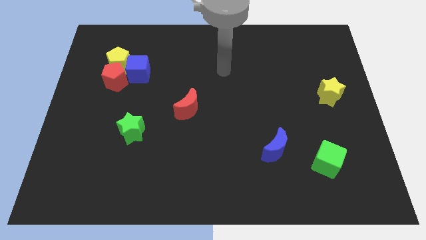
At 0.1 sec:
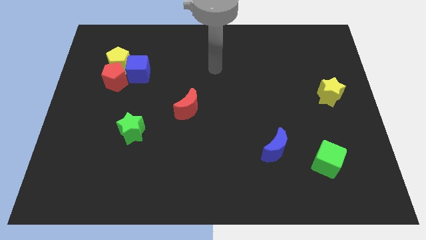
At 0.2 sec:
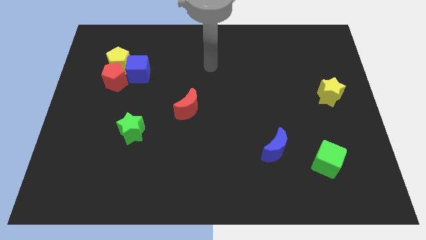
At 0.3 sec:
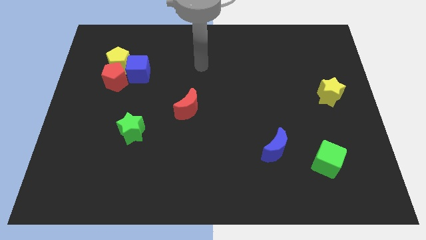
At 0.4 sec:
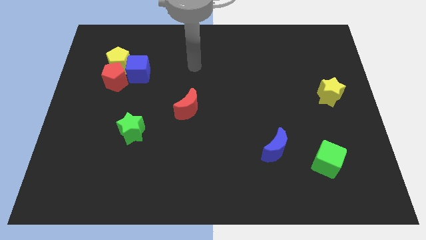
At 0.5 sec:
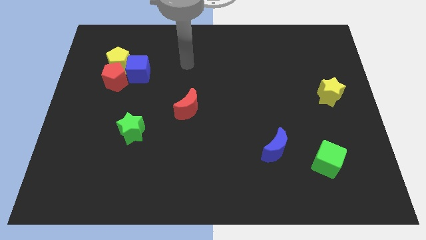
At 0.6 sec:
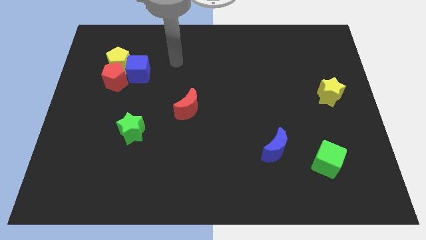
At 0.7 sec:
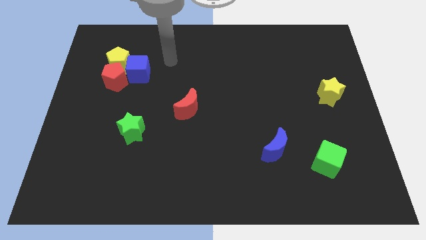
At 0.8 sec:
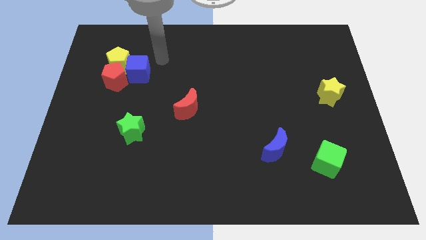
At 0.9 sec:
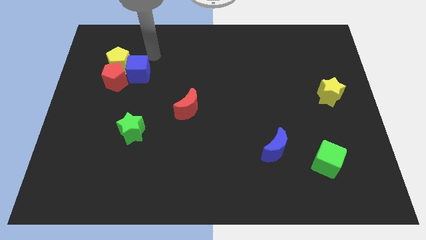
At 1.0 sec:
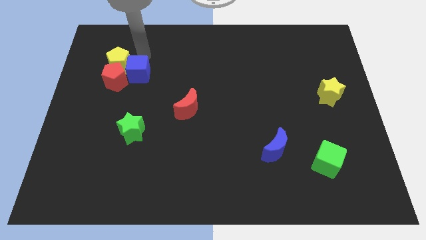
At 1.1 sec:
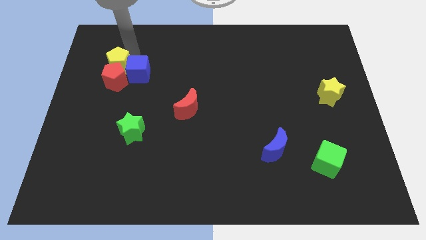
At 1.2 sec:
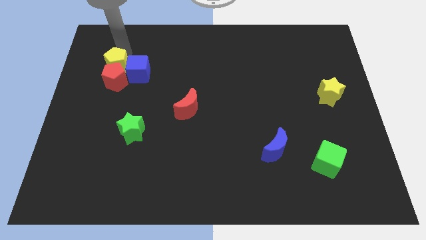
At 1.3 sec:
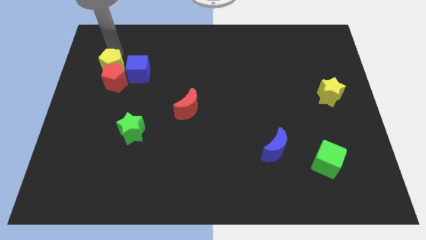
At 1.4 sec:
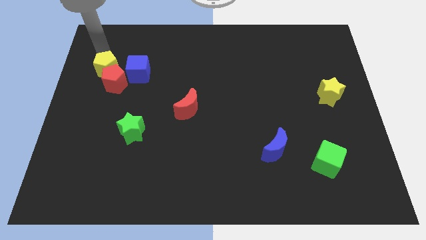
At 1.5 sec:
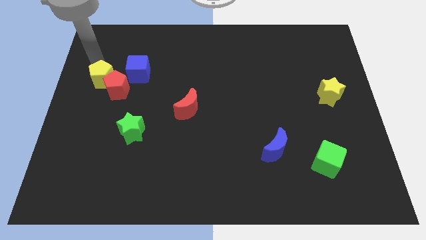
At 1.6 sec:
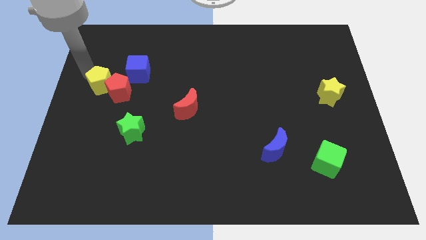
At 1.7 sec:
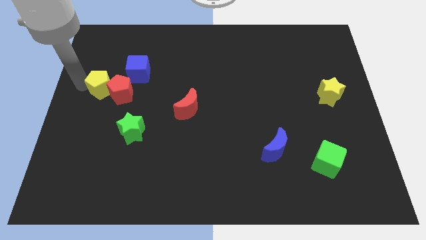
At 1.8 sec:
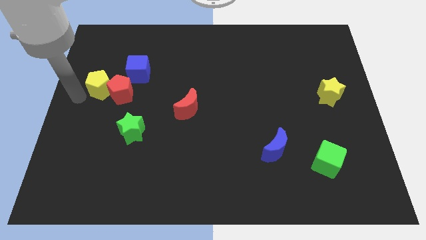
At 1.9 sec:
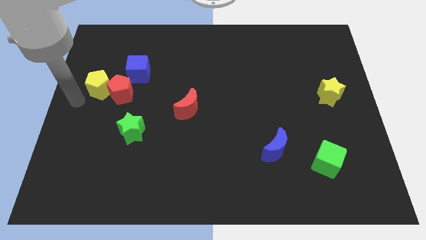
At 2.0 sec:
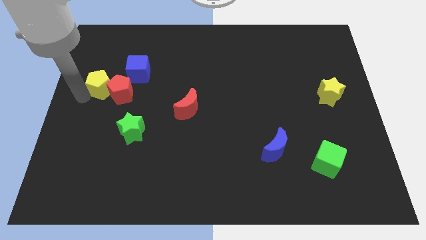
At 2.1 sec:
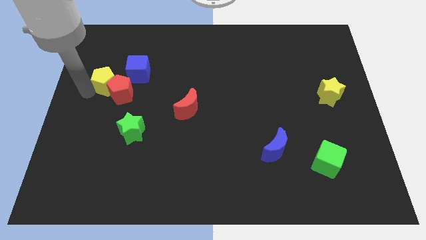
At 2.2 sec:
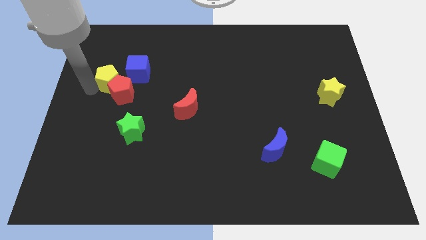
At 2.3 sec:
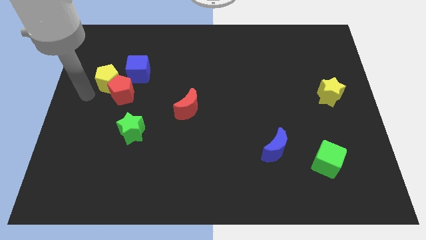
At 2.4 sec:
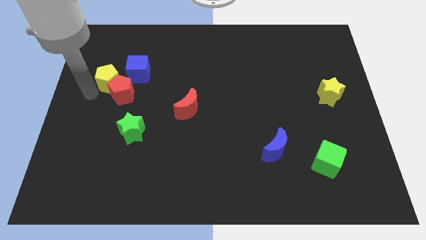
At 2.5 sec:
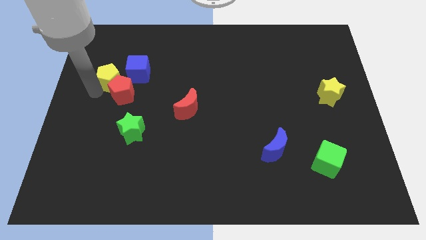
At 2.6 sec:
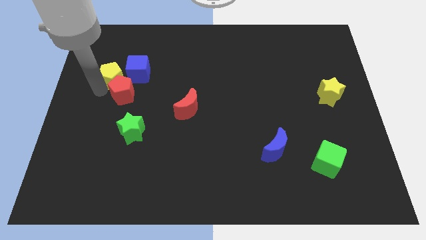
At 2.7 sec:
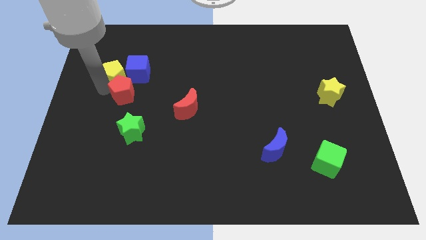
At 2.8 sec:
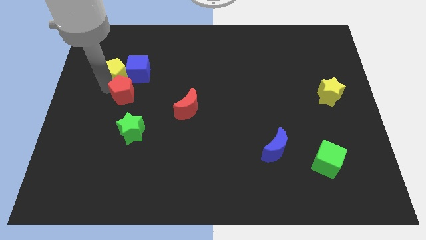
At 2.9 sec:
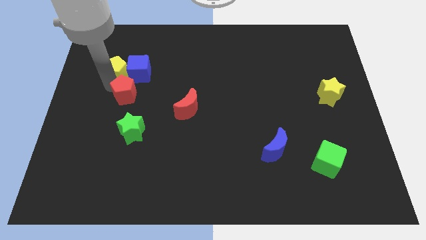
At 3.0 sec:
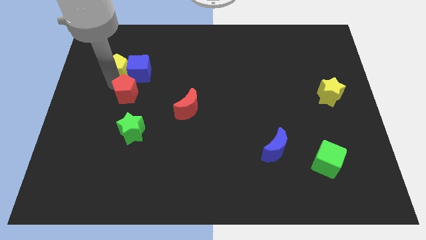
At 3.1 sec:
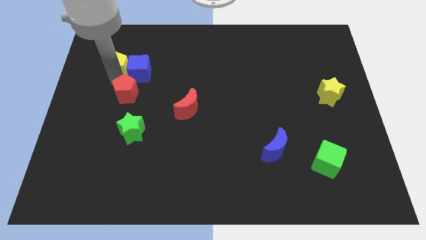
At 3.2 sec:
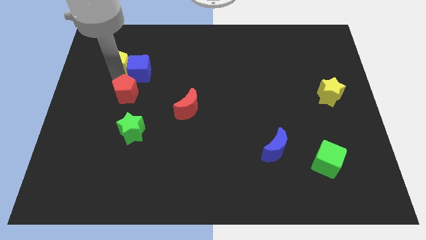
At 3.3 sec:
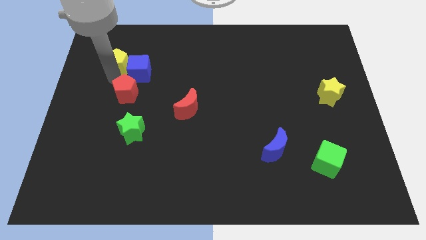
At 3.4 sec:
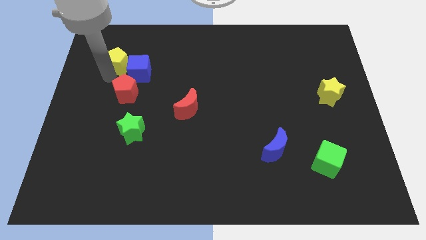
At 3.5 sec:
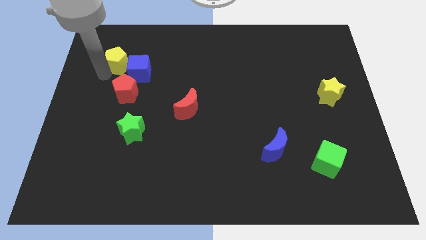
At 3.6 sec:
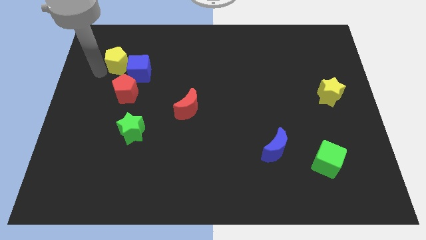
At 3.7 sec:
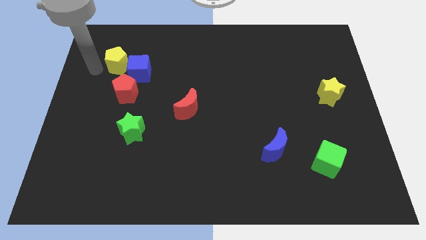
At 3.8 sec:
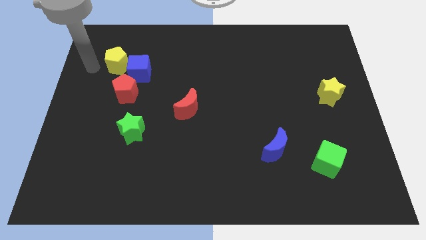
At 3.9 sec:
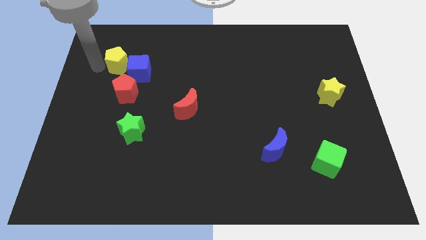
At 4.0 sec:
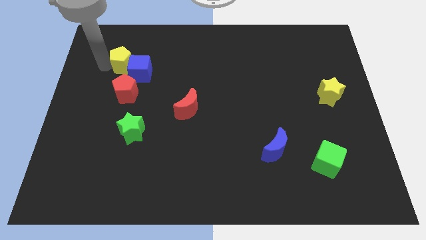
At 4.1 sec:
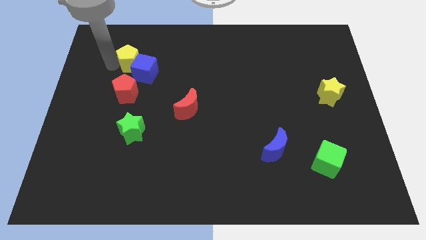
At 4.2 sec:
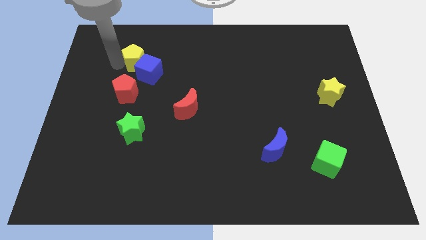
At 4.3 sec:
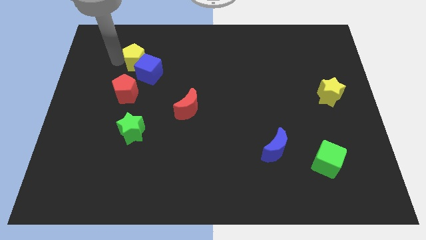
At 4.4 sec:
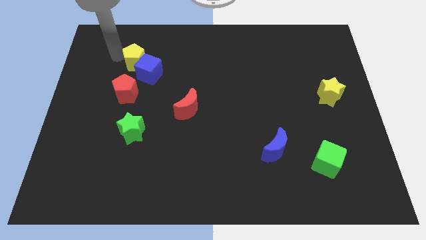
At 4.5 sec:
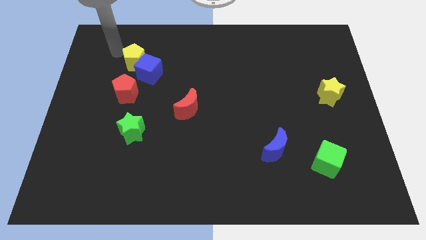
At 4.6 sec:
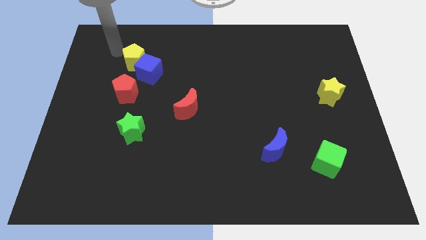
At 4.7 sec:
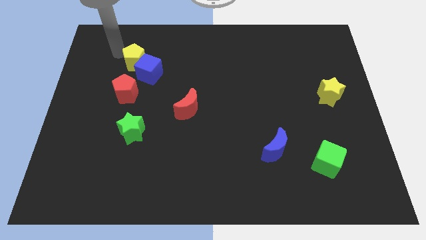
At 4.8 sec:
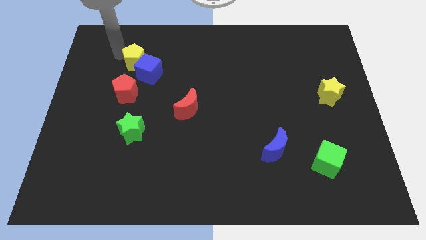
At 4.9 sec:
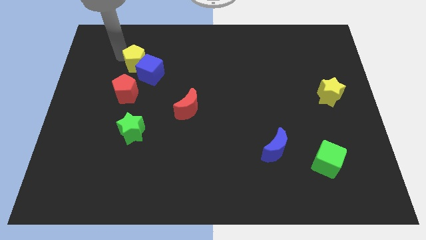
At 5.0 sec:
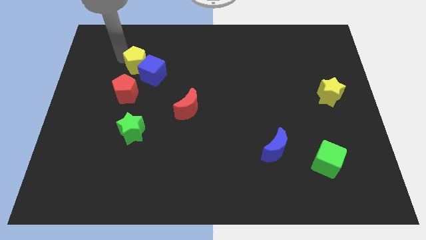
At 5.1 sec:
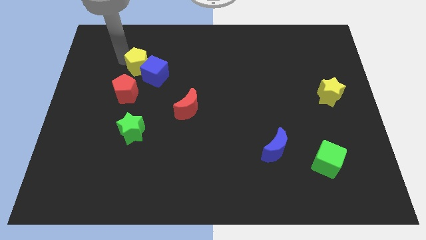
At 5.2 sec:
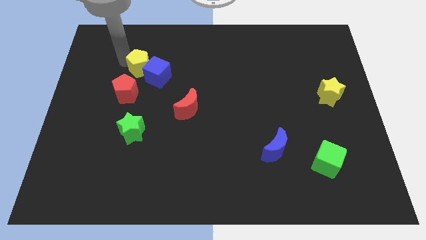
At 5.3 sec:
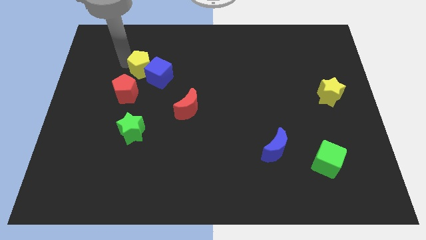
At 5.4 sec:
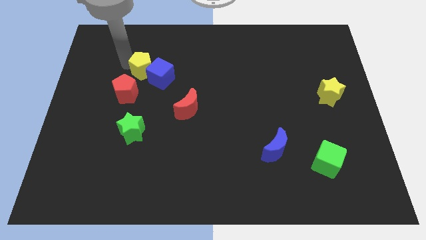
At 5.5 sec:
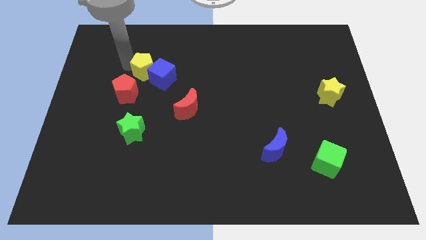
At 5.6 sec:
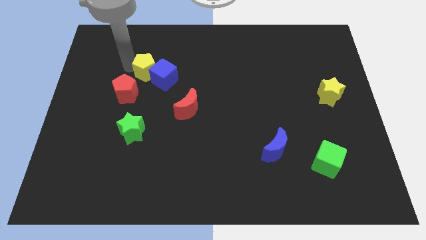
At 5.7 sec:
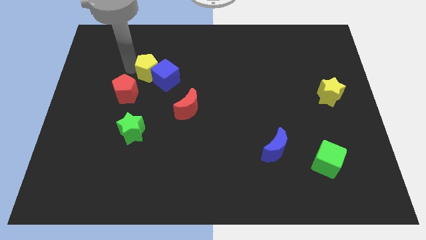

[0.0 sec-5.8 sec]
move the yellow pentagon downwards and right a little

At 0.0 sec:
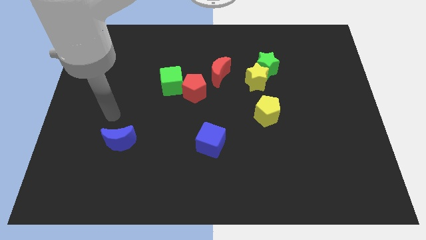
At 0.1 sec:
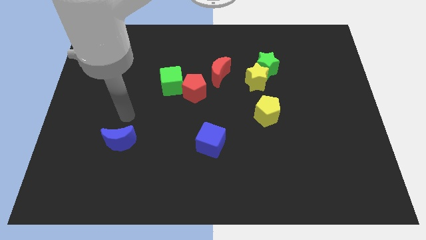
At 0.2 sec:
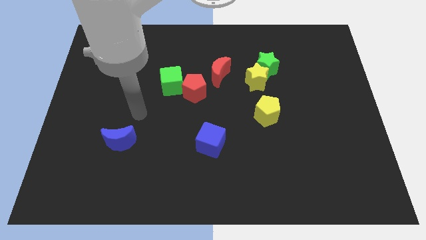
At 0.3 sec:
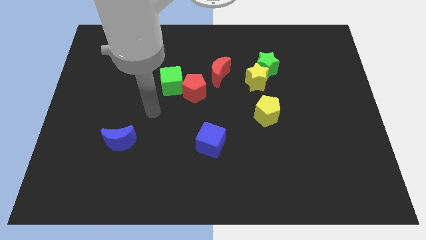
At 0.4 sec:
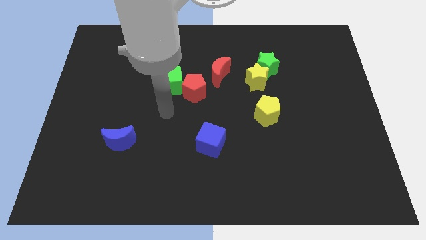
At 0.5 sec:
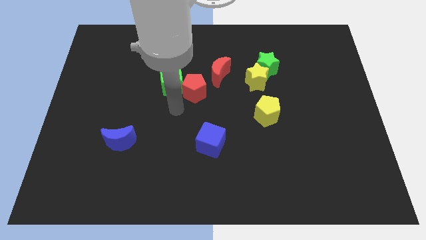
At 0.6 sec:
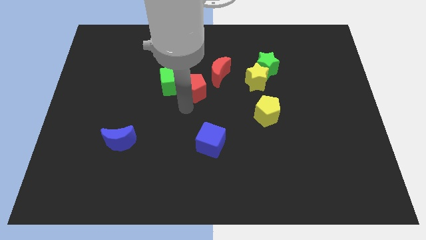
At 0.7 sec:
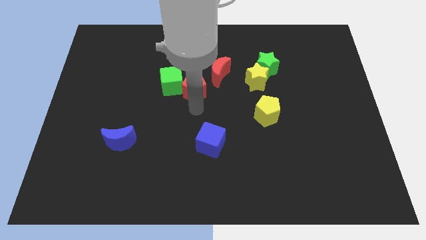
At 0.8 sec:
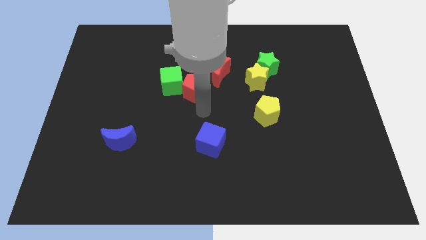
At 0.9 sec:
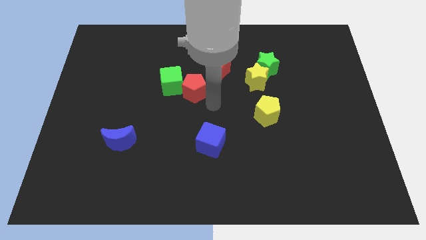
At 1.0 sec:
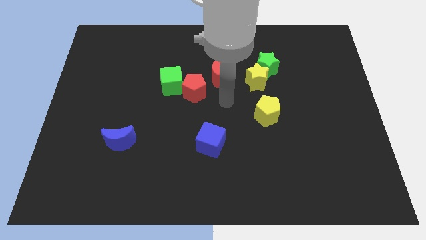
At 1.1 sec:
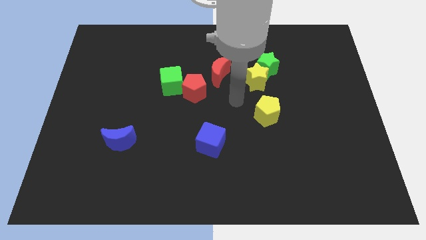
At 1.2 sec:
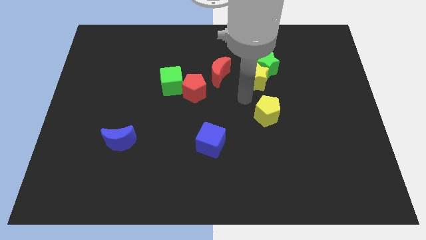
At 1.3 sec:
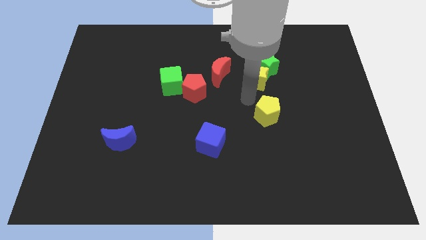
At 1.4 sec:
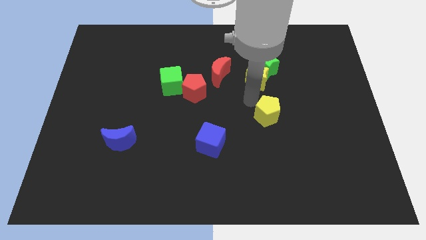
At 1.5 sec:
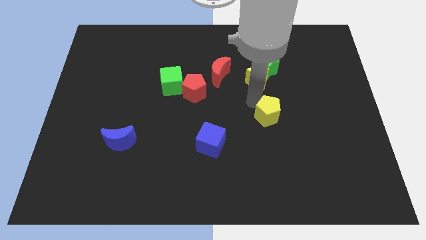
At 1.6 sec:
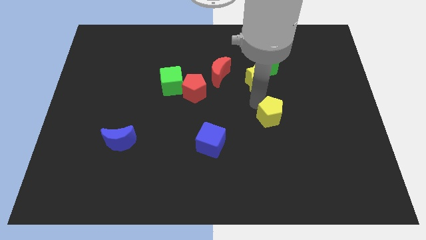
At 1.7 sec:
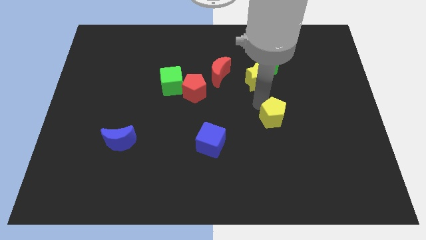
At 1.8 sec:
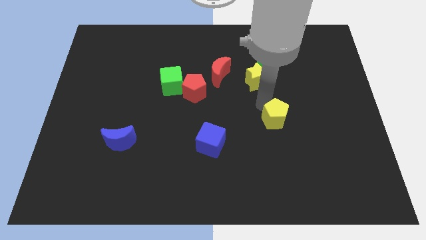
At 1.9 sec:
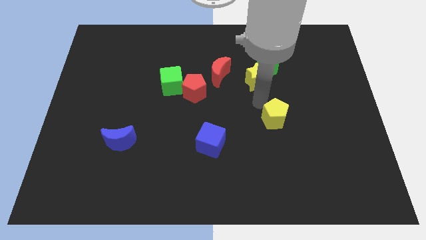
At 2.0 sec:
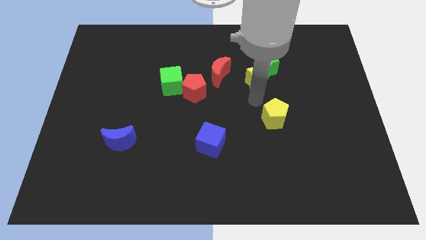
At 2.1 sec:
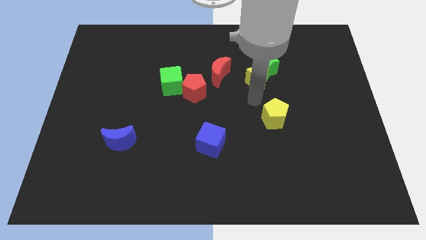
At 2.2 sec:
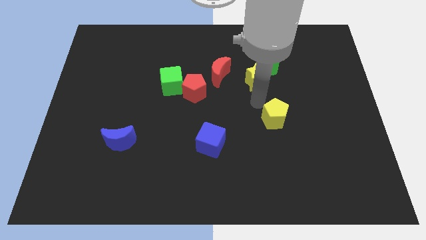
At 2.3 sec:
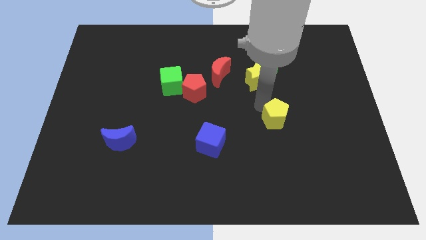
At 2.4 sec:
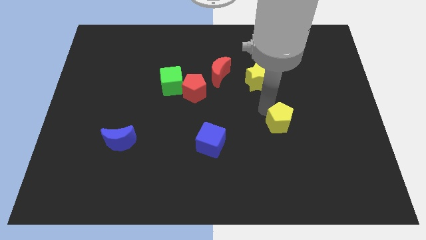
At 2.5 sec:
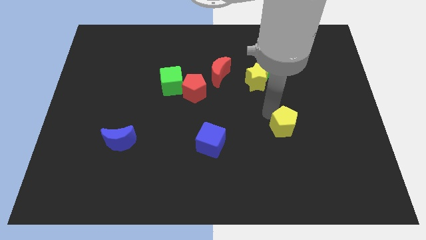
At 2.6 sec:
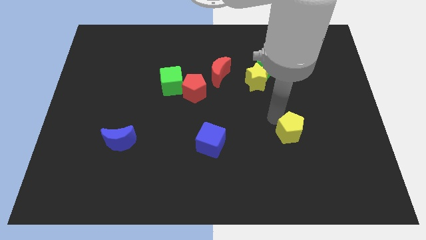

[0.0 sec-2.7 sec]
slide the yellow pentagon downwards and to the right somewhat
